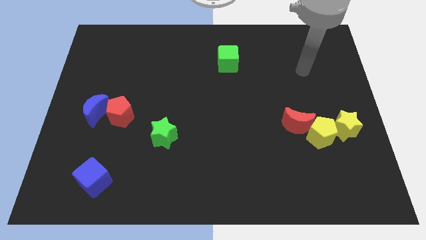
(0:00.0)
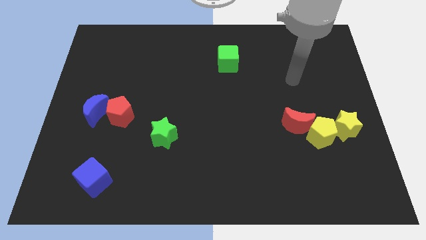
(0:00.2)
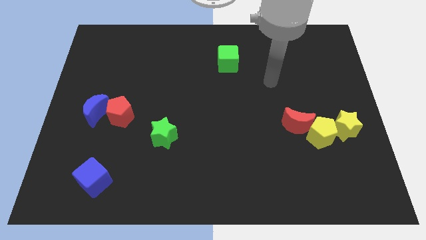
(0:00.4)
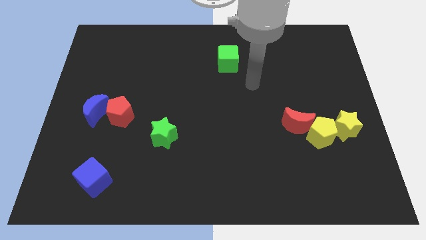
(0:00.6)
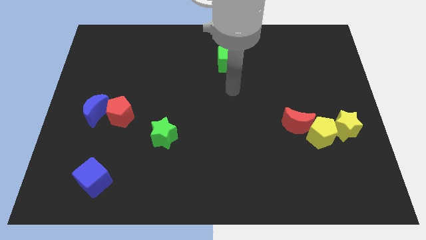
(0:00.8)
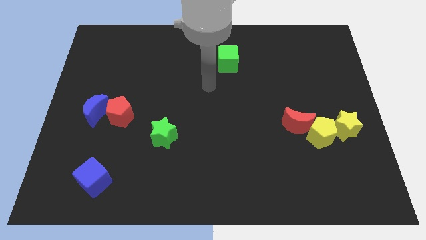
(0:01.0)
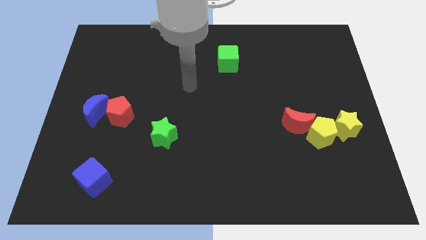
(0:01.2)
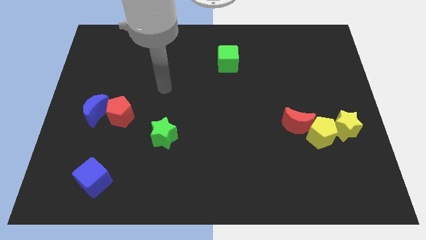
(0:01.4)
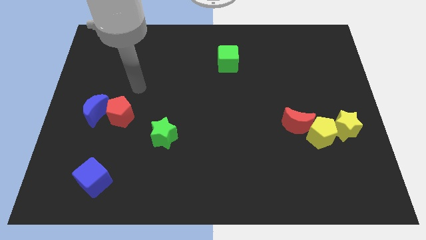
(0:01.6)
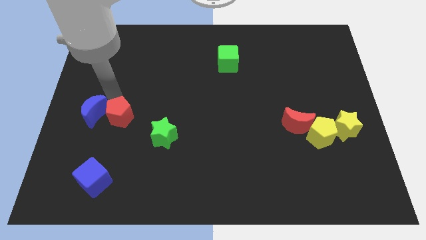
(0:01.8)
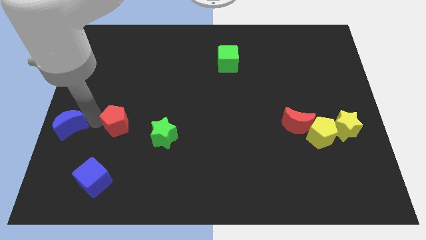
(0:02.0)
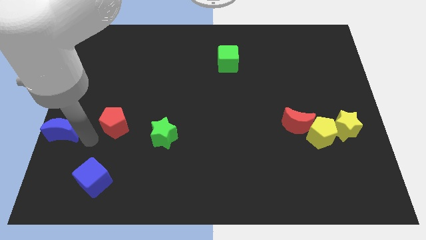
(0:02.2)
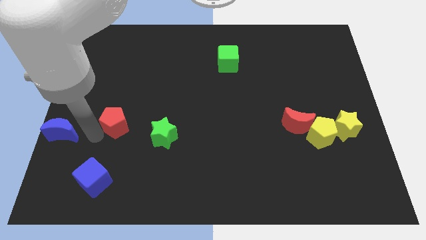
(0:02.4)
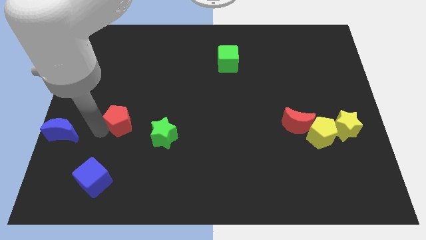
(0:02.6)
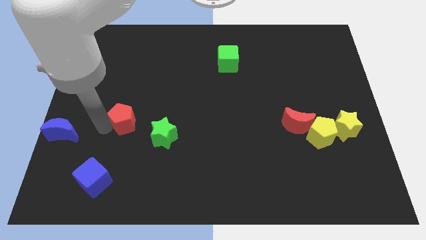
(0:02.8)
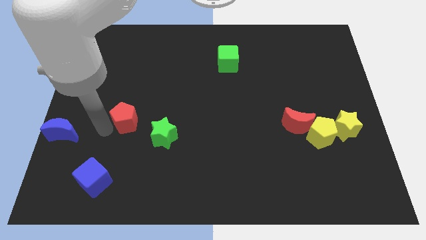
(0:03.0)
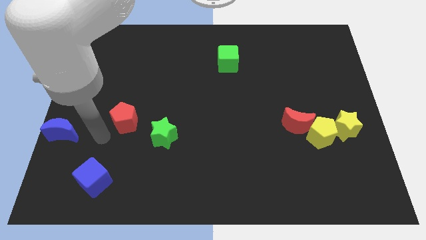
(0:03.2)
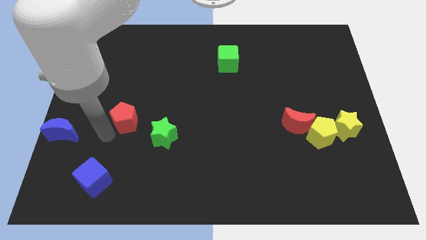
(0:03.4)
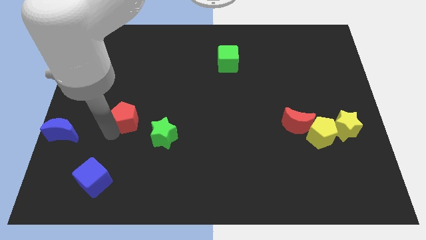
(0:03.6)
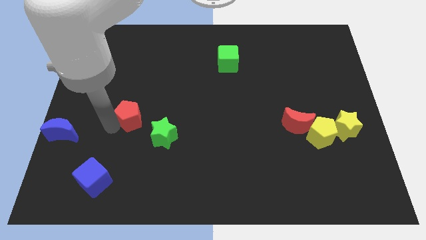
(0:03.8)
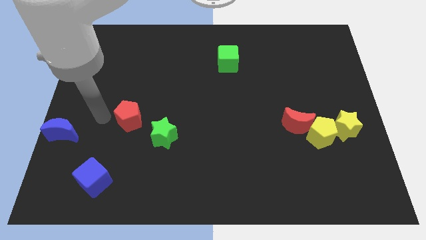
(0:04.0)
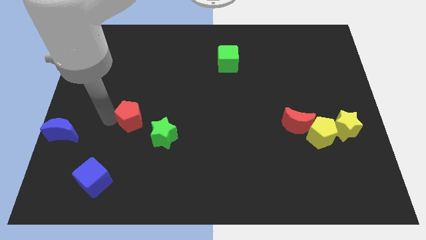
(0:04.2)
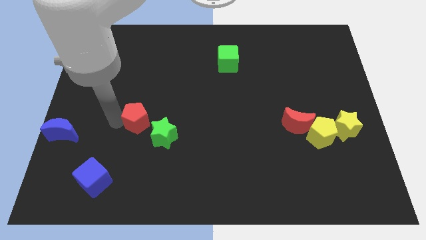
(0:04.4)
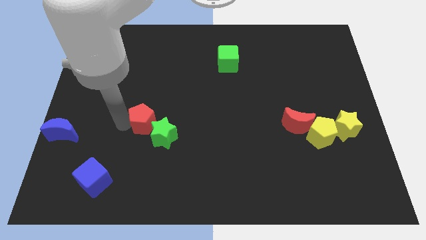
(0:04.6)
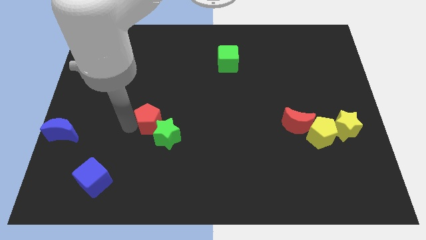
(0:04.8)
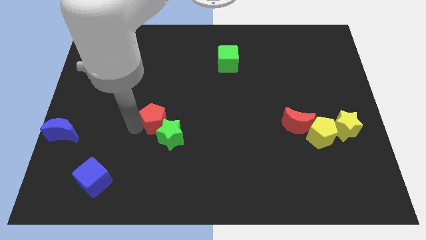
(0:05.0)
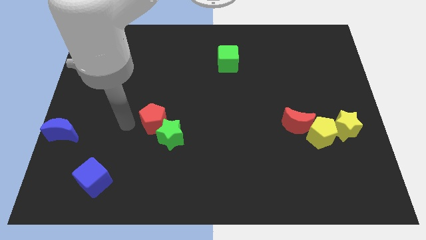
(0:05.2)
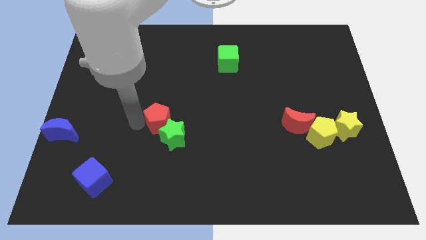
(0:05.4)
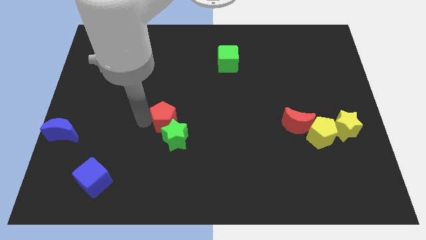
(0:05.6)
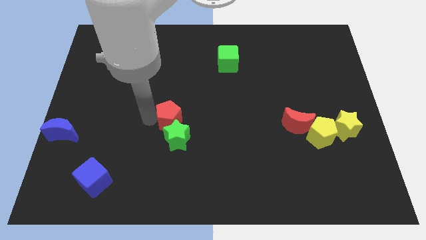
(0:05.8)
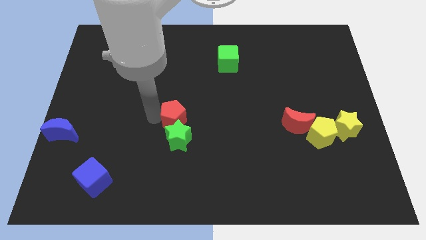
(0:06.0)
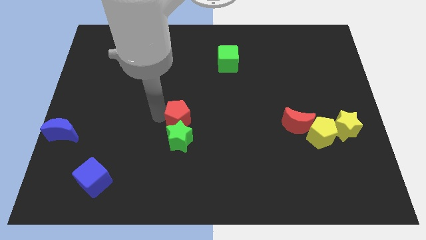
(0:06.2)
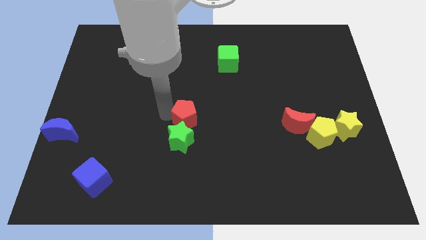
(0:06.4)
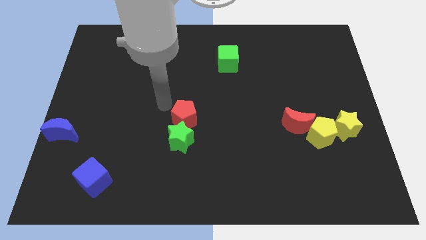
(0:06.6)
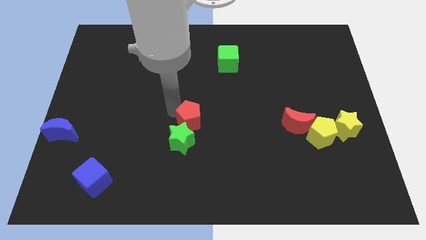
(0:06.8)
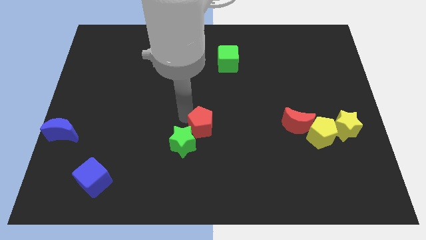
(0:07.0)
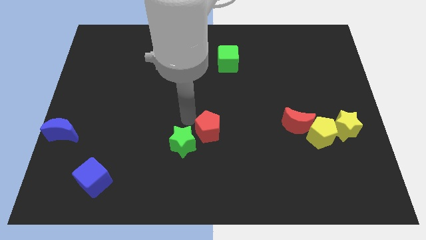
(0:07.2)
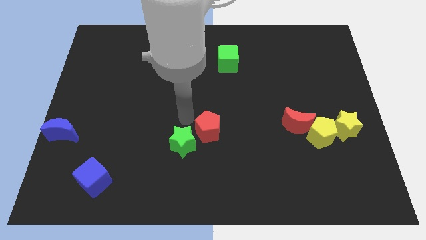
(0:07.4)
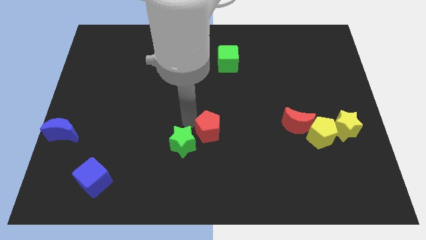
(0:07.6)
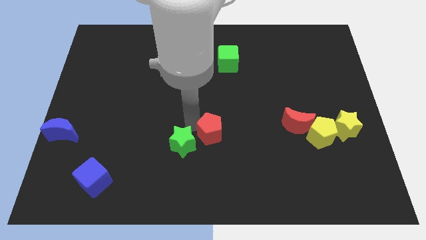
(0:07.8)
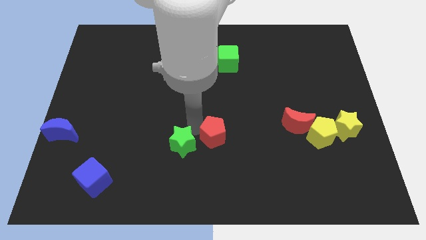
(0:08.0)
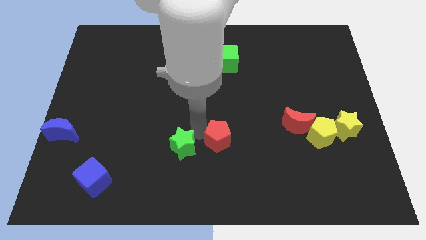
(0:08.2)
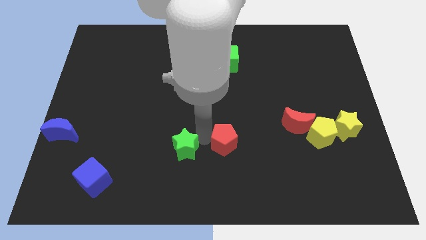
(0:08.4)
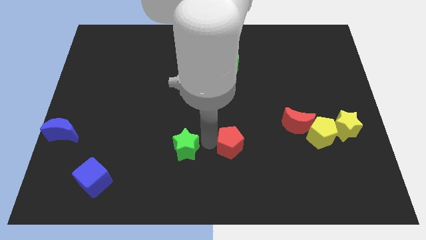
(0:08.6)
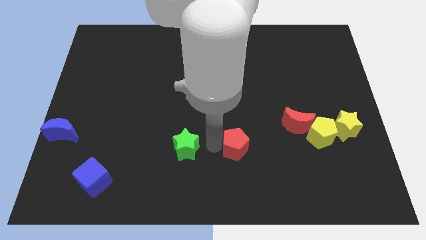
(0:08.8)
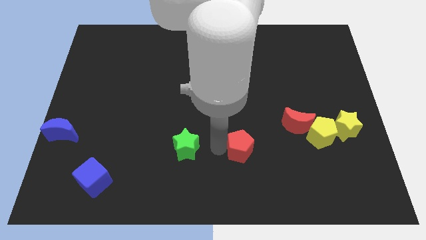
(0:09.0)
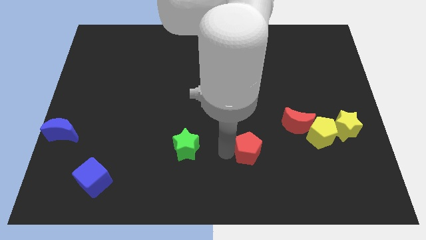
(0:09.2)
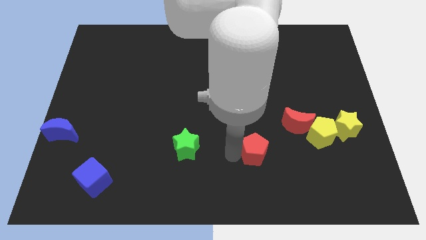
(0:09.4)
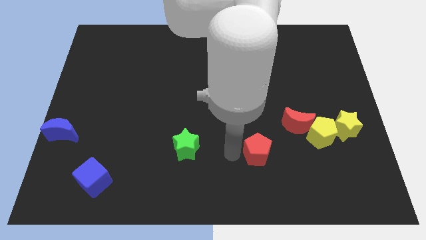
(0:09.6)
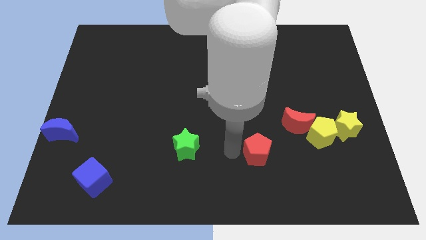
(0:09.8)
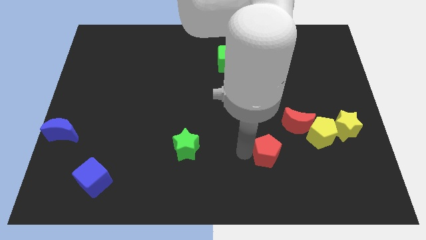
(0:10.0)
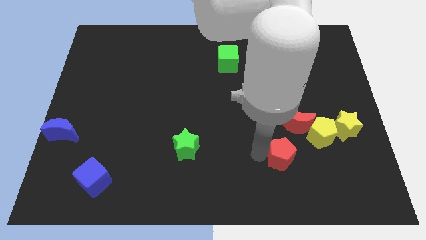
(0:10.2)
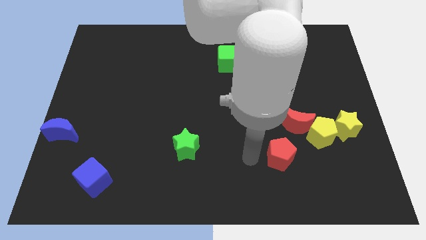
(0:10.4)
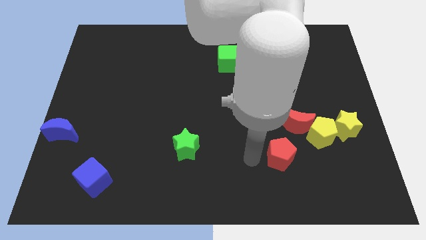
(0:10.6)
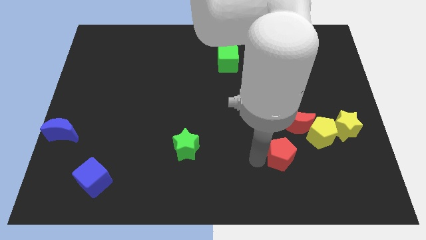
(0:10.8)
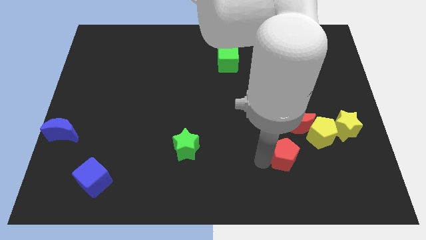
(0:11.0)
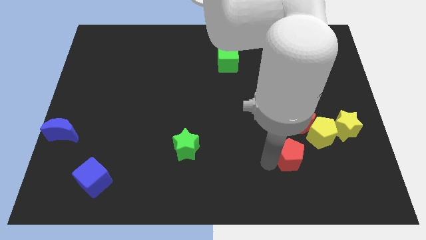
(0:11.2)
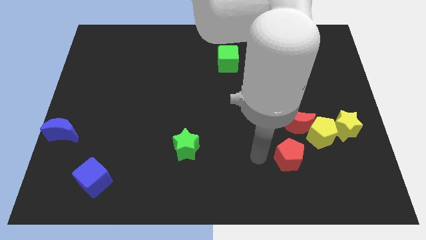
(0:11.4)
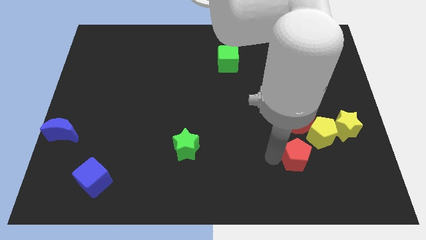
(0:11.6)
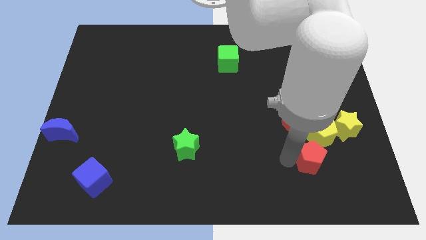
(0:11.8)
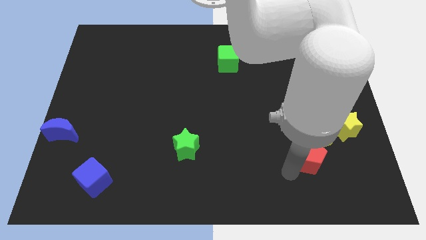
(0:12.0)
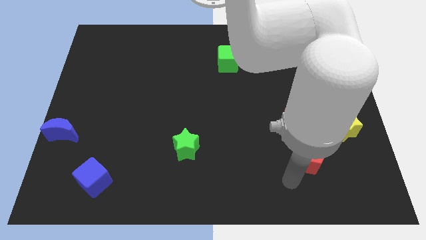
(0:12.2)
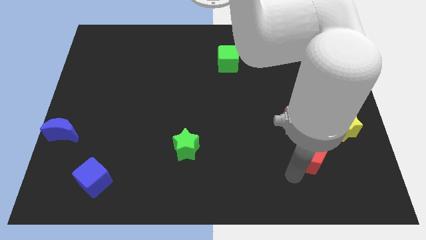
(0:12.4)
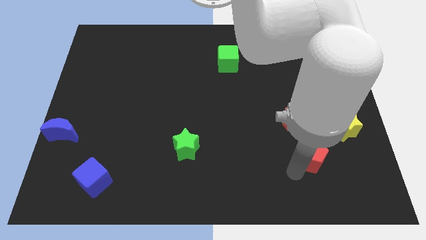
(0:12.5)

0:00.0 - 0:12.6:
move the red pentagon to the bottom right of the red moon

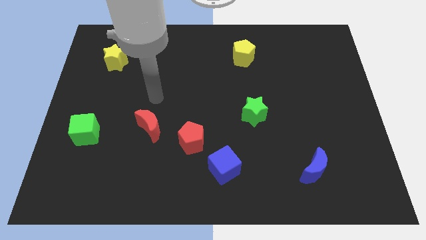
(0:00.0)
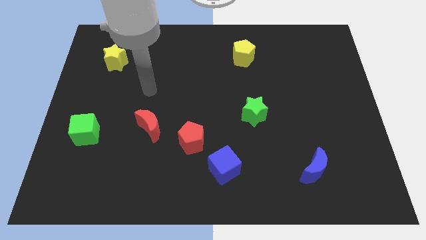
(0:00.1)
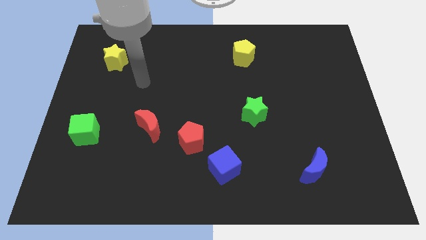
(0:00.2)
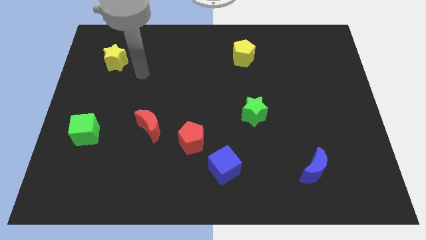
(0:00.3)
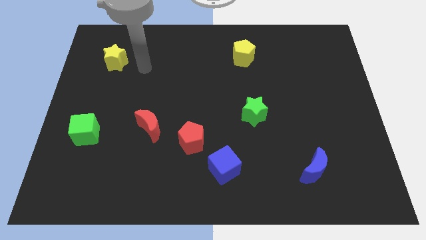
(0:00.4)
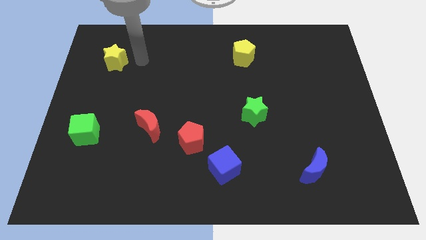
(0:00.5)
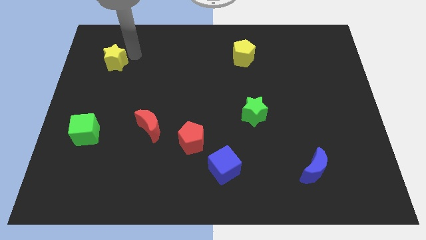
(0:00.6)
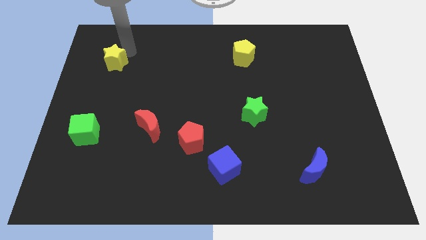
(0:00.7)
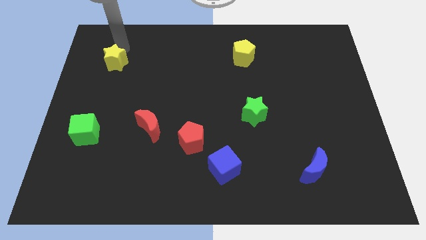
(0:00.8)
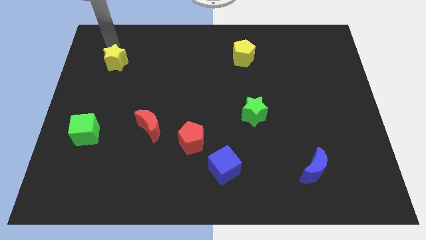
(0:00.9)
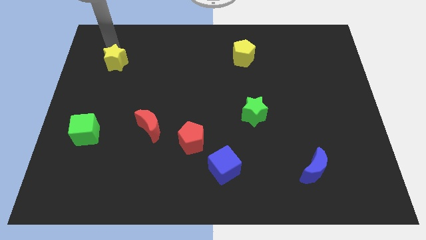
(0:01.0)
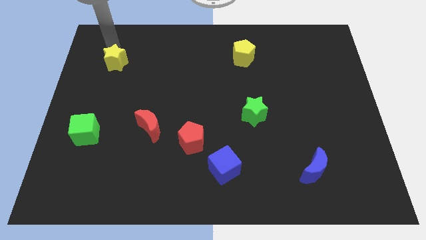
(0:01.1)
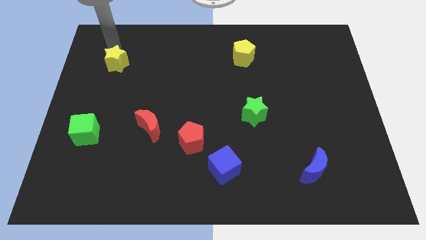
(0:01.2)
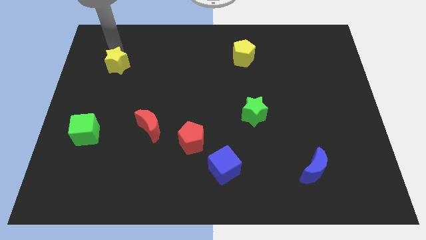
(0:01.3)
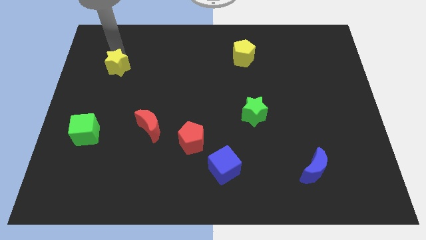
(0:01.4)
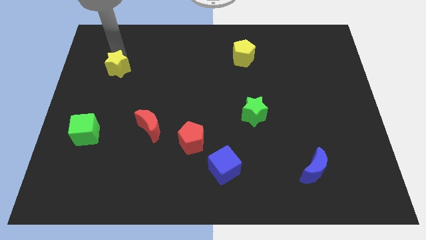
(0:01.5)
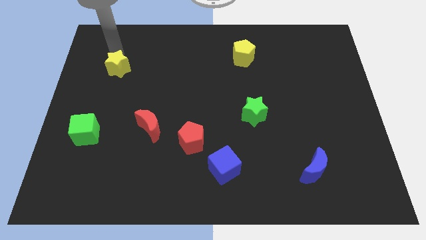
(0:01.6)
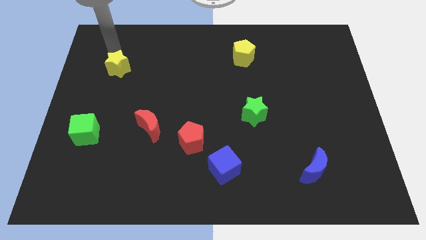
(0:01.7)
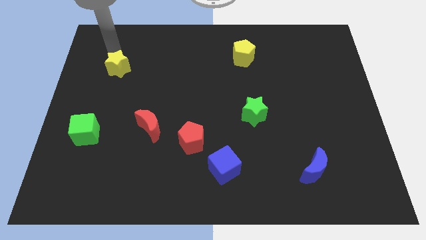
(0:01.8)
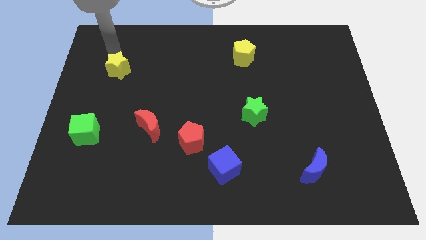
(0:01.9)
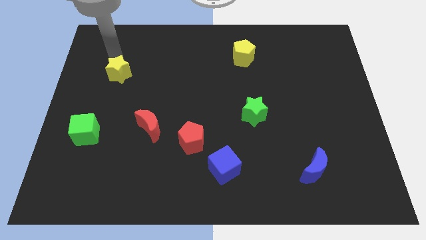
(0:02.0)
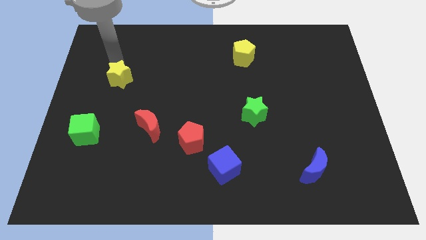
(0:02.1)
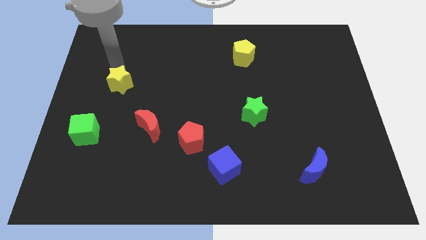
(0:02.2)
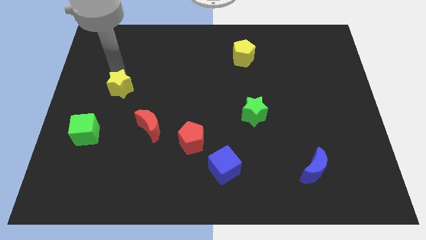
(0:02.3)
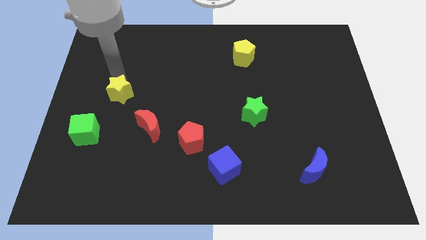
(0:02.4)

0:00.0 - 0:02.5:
slide the yellow star diagonally up and to the left of the red moon
